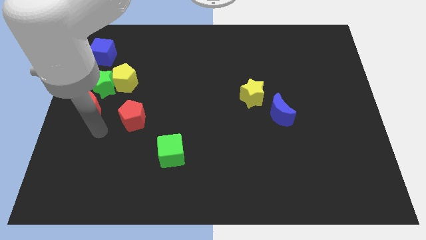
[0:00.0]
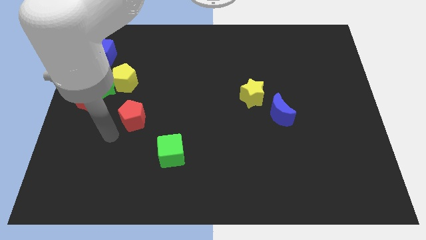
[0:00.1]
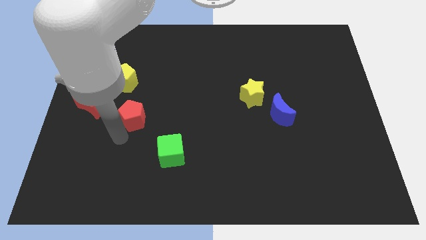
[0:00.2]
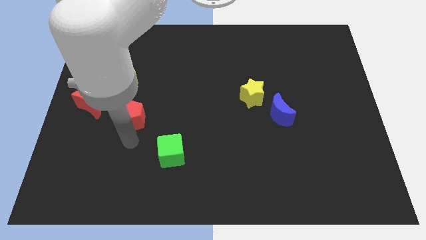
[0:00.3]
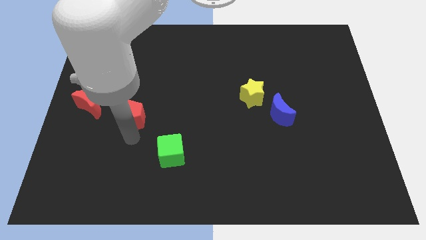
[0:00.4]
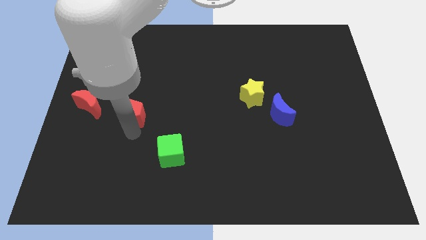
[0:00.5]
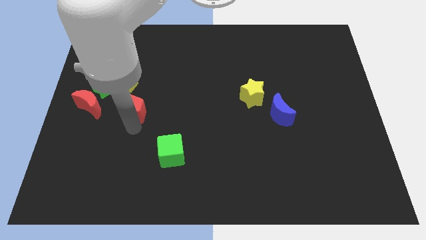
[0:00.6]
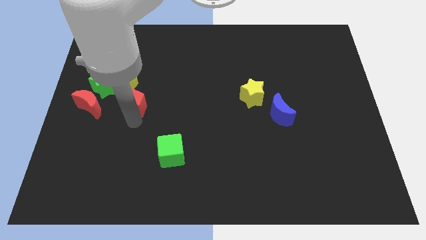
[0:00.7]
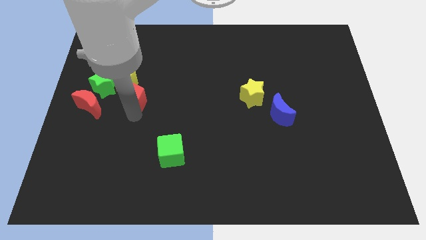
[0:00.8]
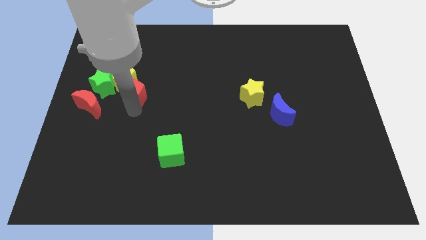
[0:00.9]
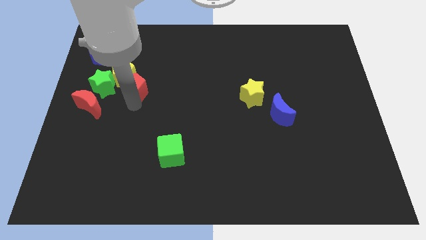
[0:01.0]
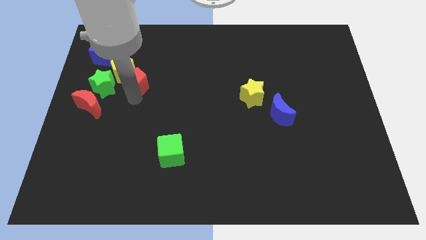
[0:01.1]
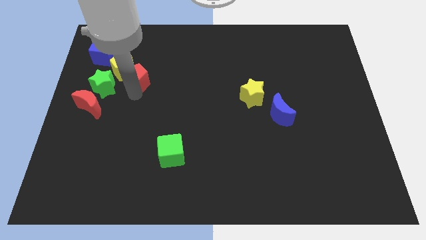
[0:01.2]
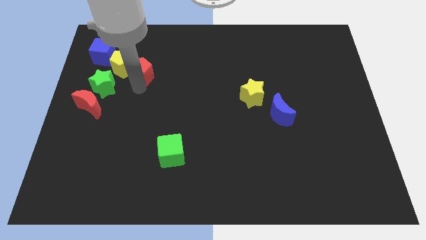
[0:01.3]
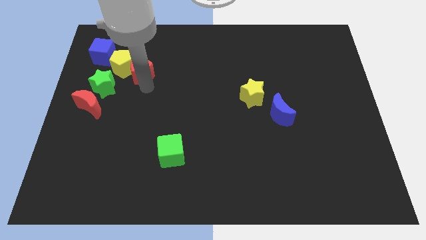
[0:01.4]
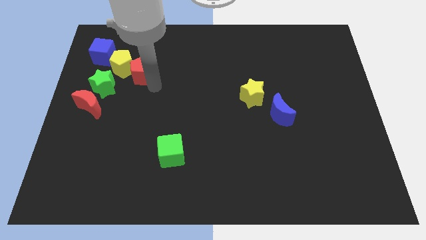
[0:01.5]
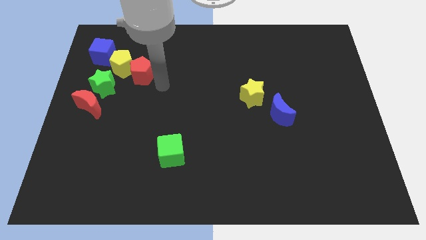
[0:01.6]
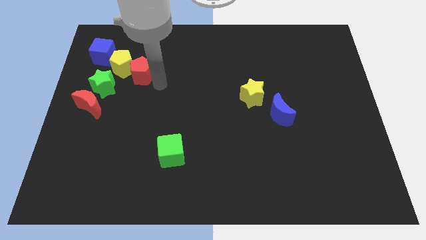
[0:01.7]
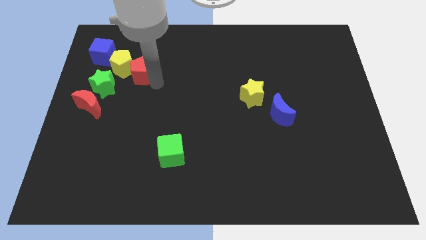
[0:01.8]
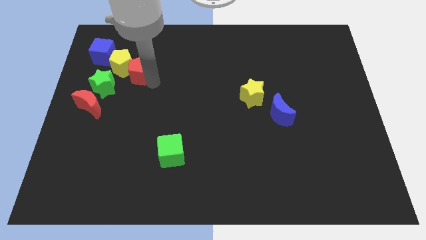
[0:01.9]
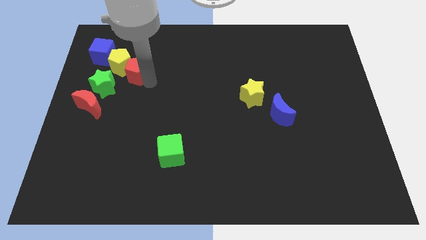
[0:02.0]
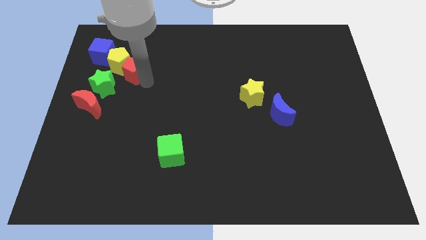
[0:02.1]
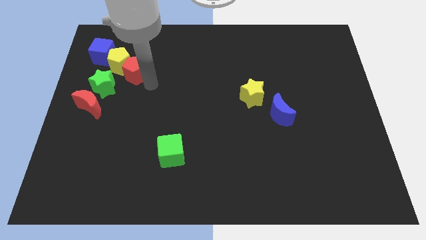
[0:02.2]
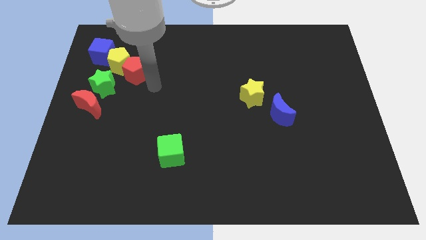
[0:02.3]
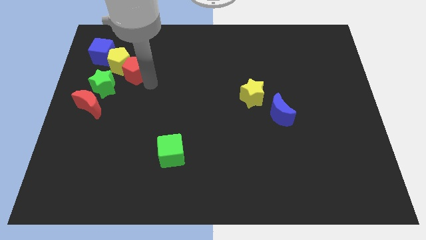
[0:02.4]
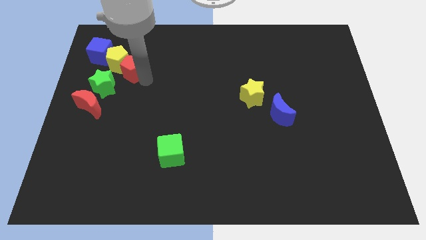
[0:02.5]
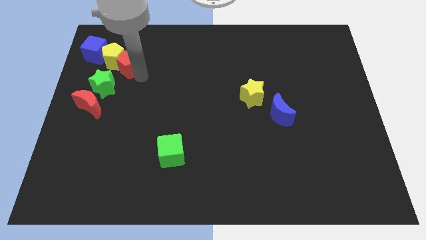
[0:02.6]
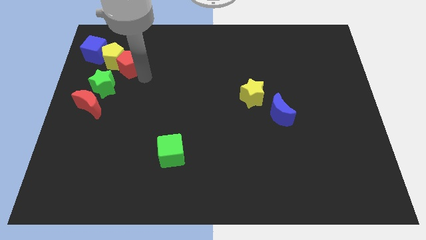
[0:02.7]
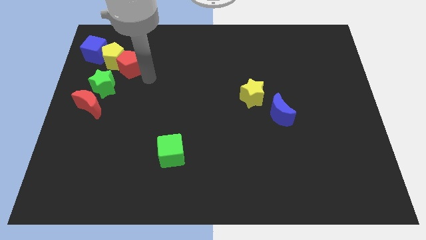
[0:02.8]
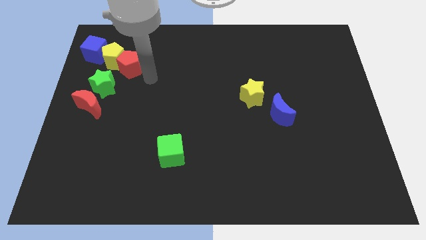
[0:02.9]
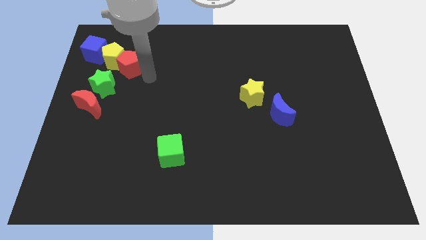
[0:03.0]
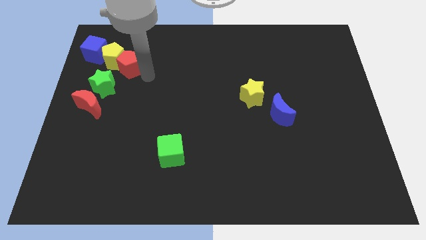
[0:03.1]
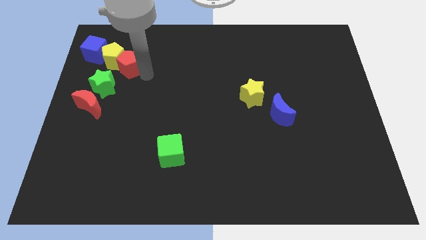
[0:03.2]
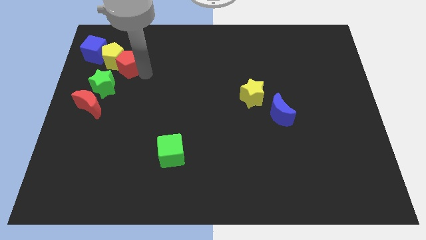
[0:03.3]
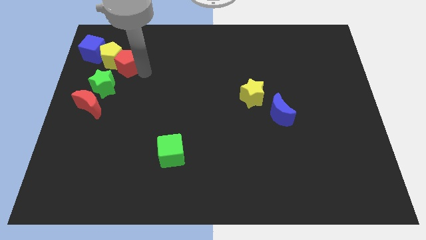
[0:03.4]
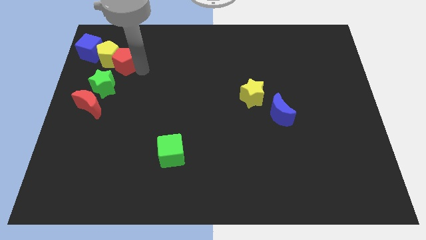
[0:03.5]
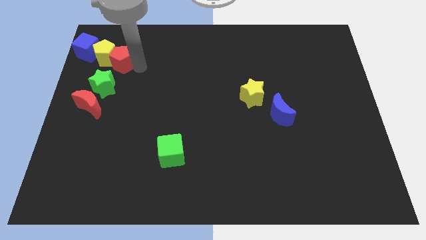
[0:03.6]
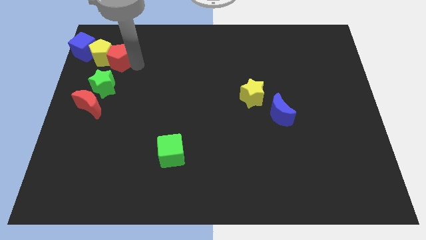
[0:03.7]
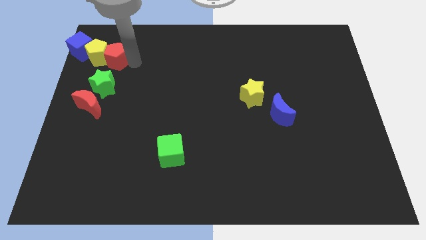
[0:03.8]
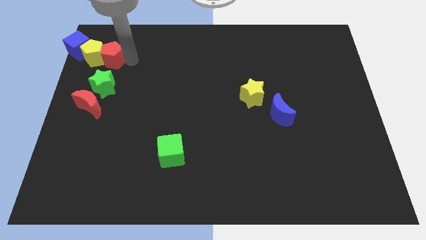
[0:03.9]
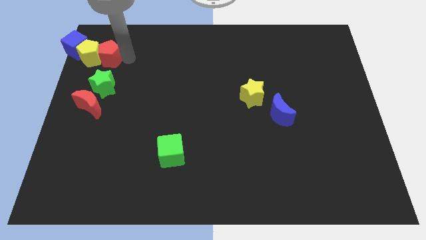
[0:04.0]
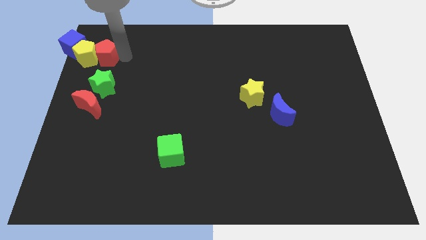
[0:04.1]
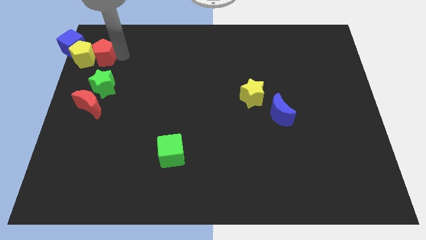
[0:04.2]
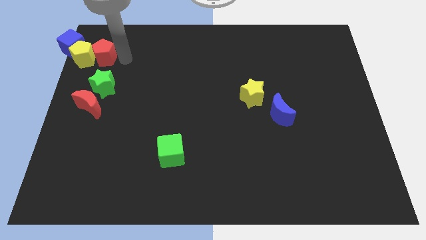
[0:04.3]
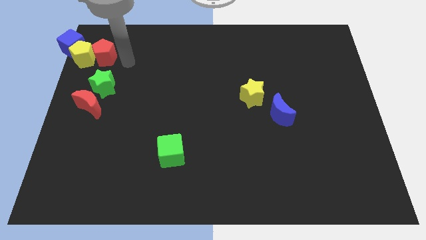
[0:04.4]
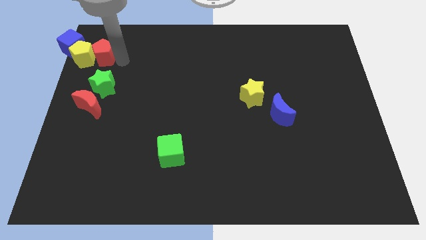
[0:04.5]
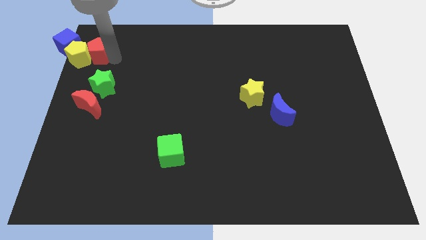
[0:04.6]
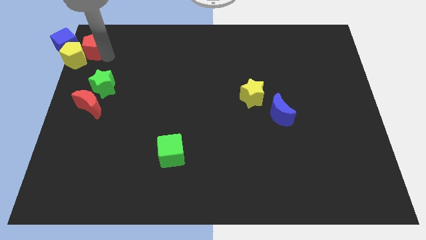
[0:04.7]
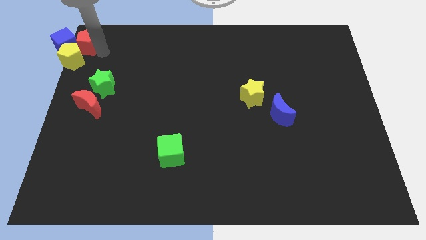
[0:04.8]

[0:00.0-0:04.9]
slide the red pentagon to the blue cube

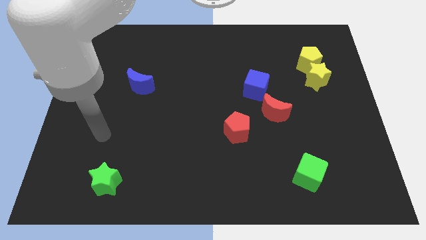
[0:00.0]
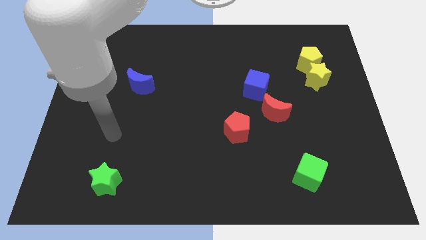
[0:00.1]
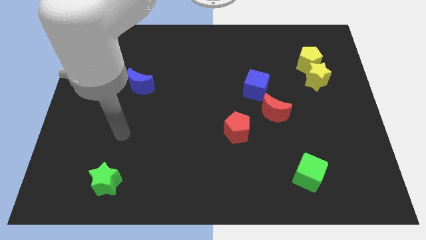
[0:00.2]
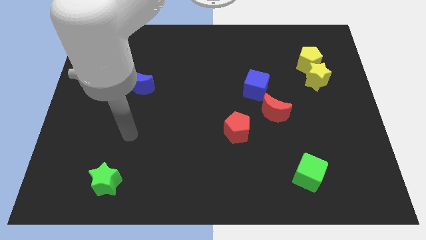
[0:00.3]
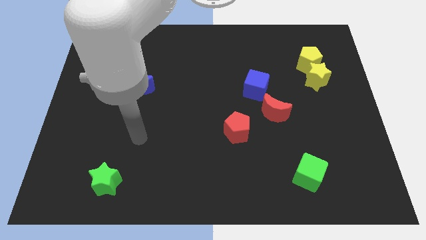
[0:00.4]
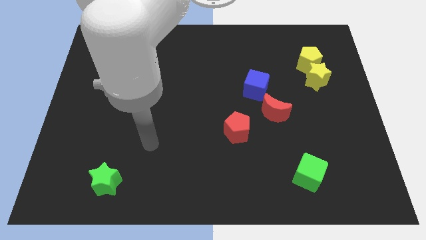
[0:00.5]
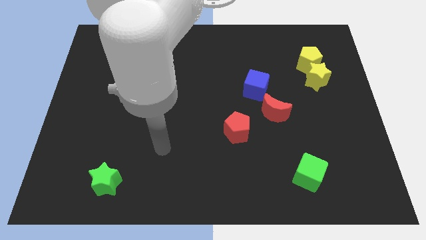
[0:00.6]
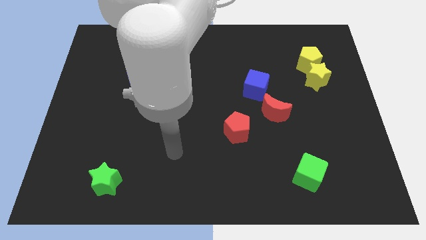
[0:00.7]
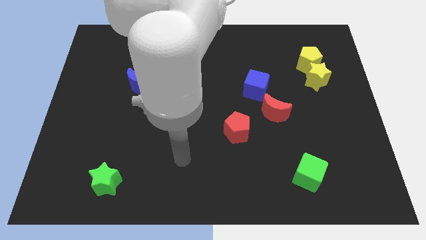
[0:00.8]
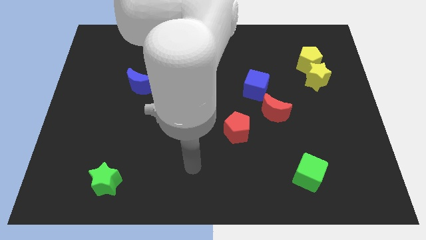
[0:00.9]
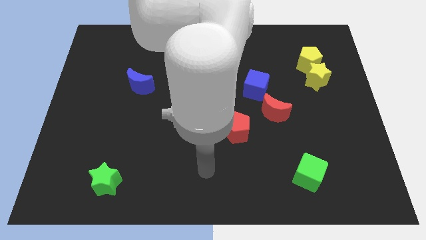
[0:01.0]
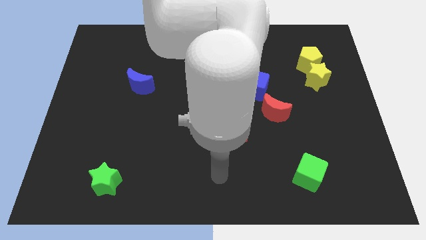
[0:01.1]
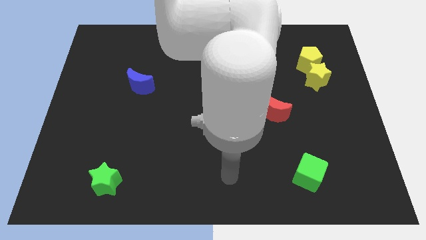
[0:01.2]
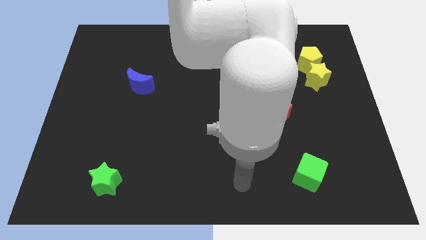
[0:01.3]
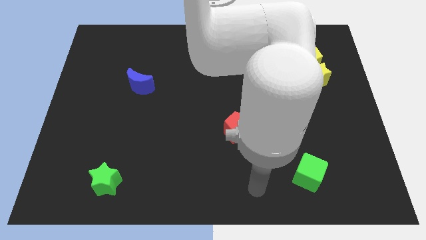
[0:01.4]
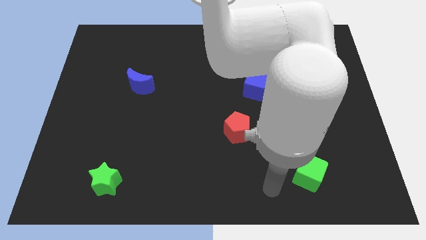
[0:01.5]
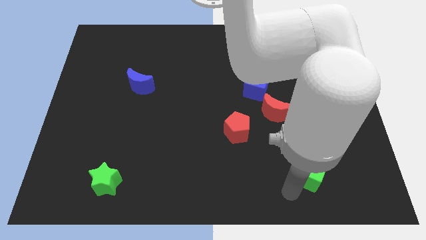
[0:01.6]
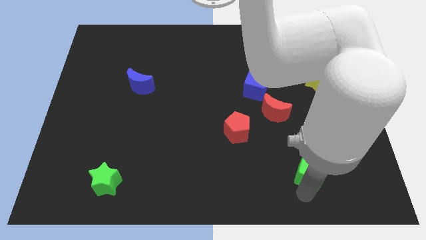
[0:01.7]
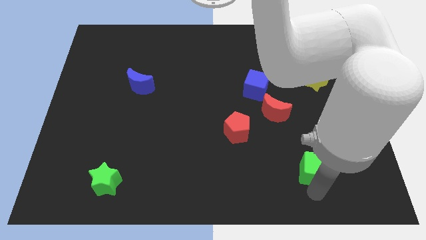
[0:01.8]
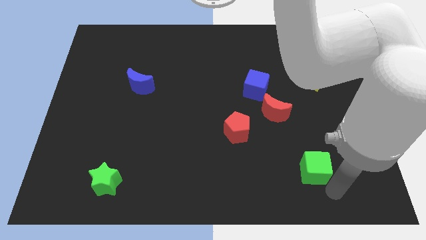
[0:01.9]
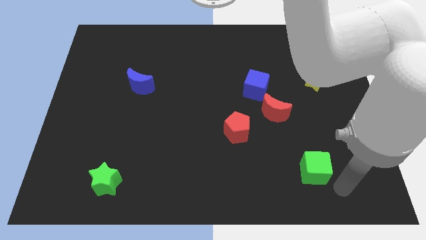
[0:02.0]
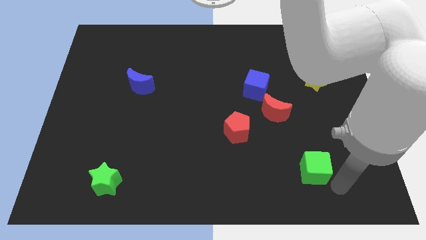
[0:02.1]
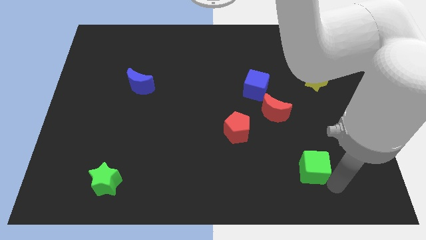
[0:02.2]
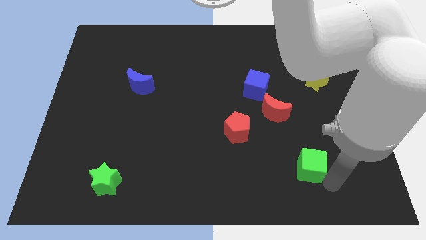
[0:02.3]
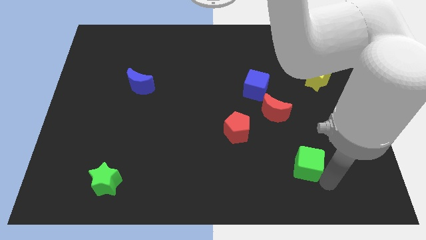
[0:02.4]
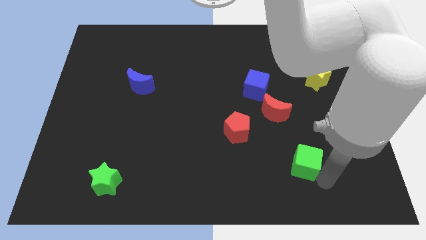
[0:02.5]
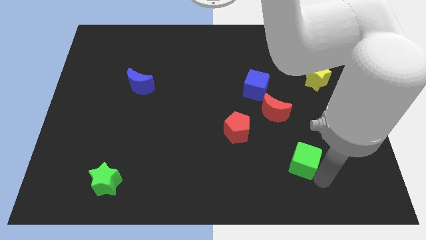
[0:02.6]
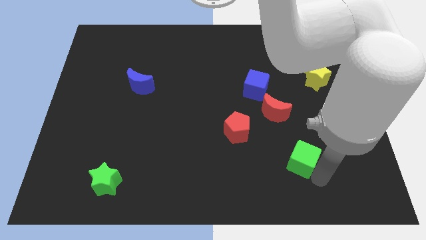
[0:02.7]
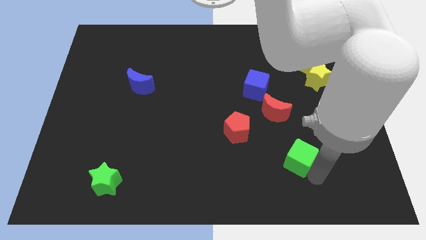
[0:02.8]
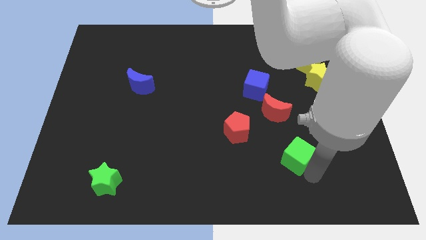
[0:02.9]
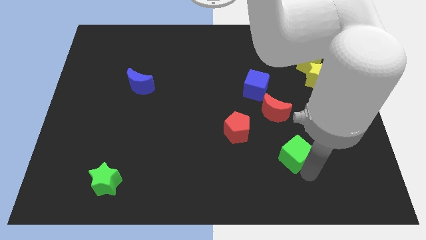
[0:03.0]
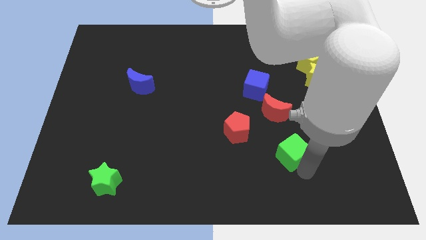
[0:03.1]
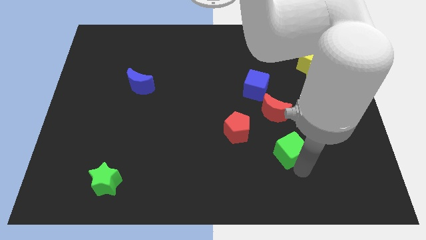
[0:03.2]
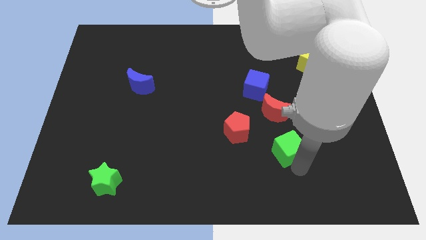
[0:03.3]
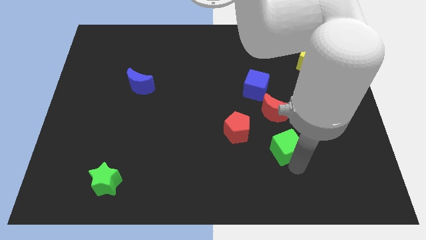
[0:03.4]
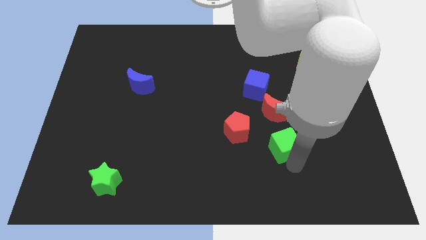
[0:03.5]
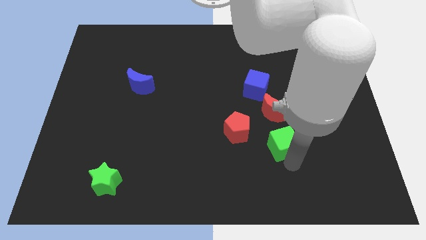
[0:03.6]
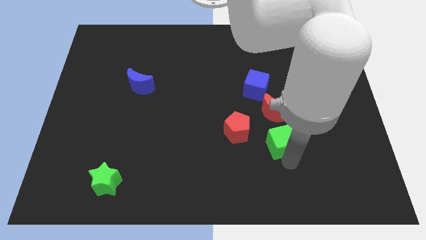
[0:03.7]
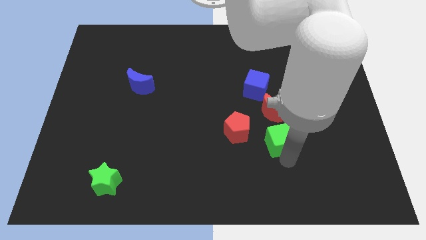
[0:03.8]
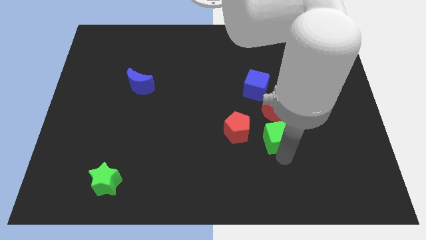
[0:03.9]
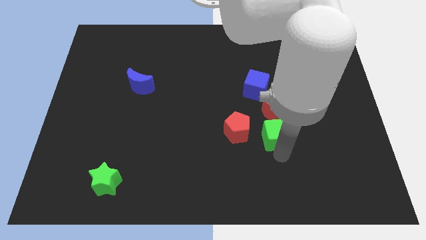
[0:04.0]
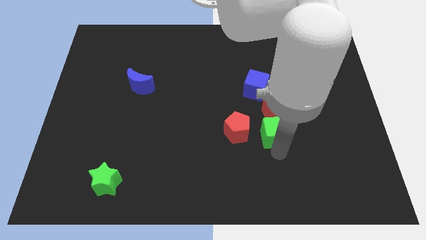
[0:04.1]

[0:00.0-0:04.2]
put the green cube to the red moon
